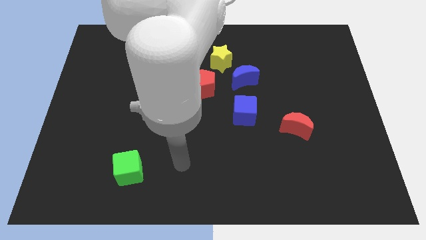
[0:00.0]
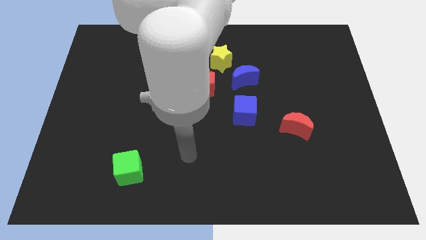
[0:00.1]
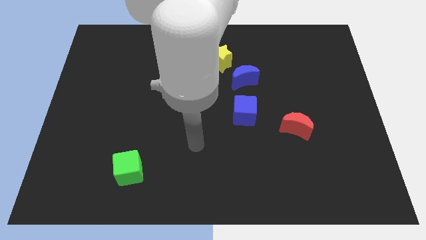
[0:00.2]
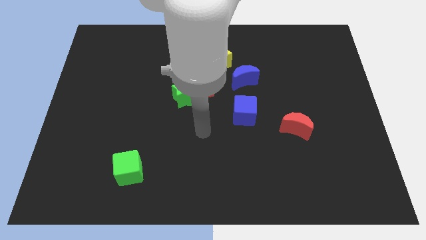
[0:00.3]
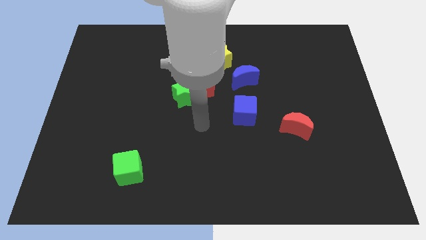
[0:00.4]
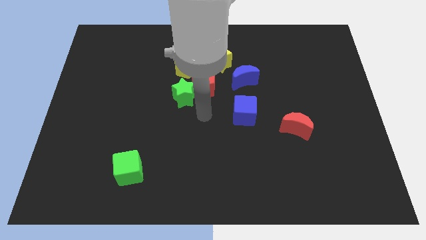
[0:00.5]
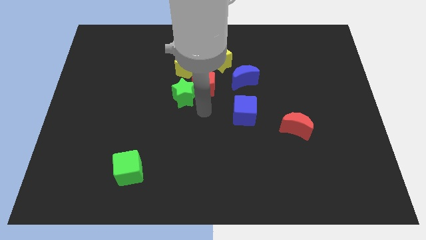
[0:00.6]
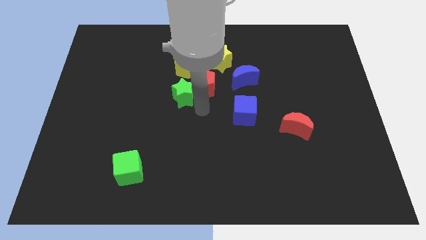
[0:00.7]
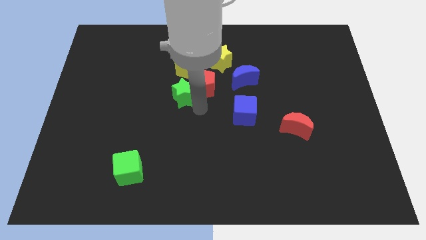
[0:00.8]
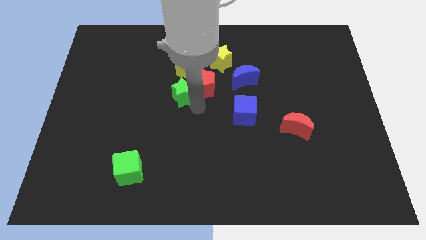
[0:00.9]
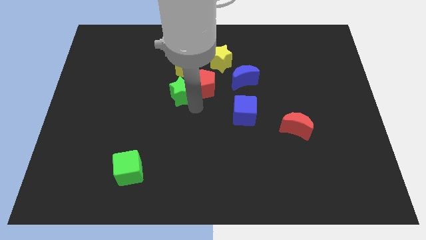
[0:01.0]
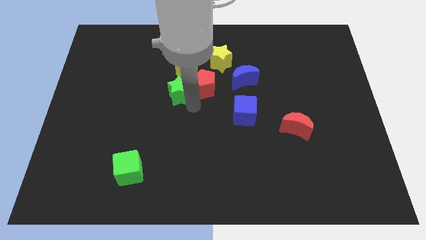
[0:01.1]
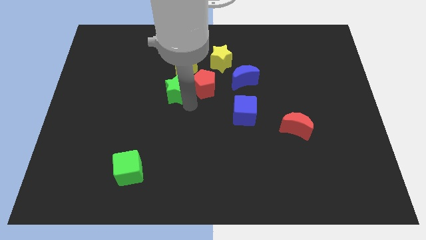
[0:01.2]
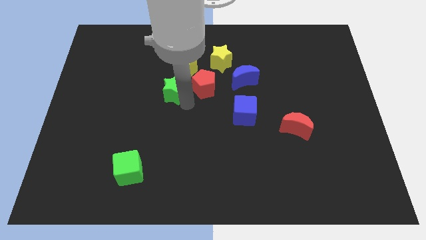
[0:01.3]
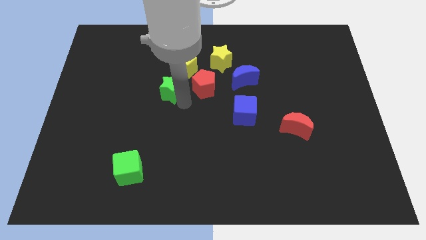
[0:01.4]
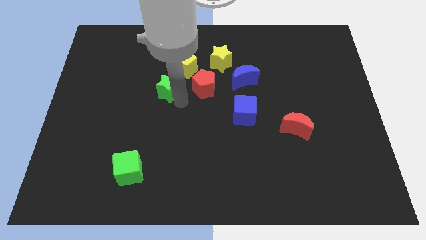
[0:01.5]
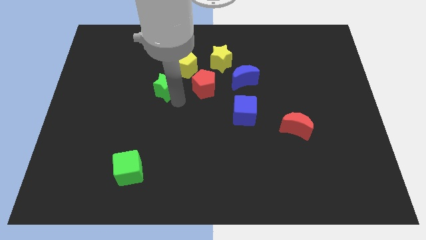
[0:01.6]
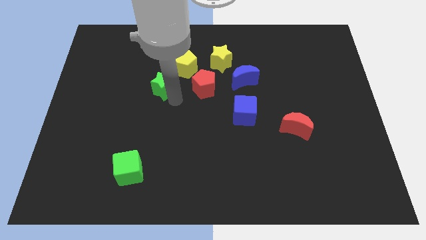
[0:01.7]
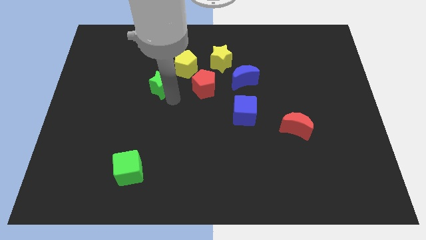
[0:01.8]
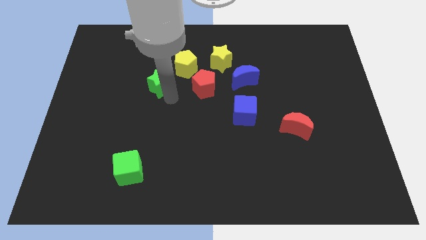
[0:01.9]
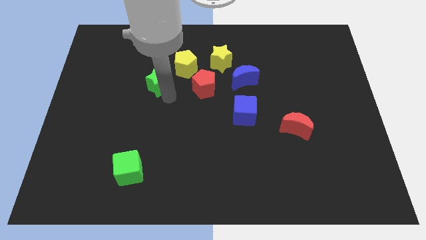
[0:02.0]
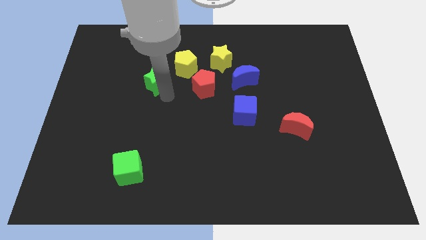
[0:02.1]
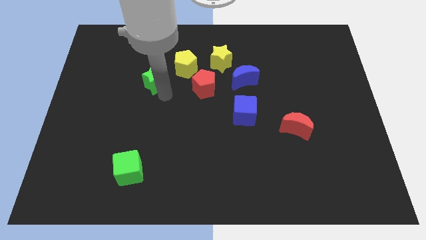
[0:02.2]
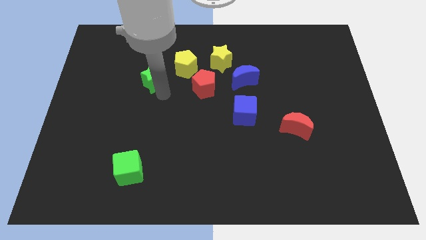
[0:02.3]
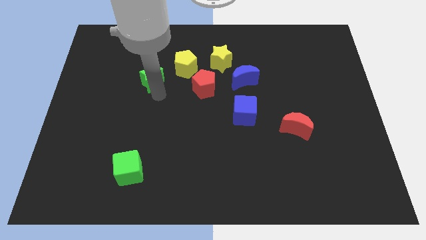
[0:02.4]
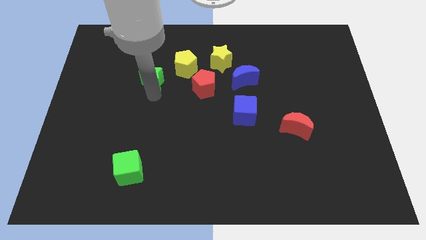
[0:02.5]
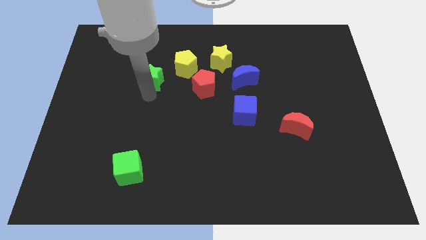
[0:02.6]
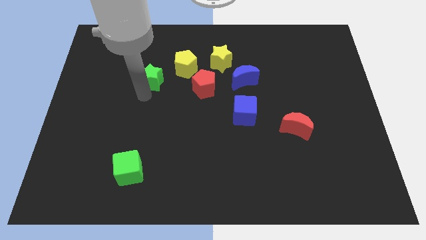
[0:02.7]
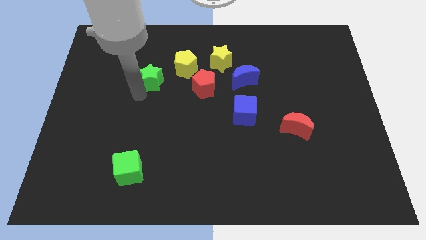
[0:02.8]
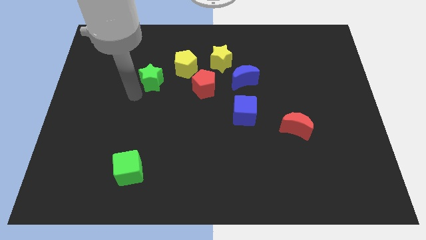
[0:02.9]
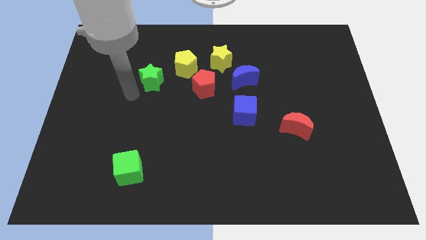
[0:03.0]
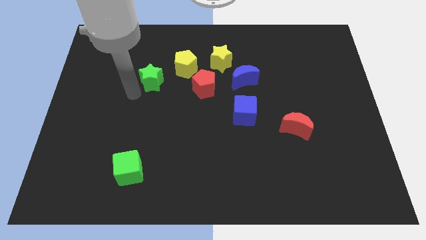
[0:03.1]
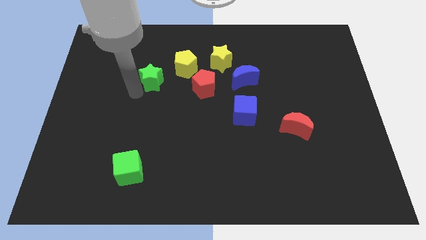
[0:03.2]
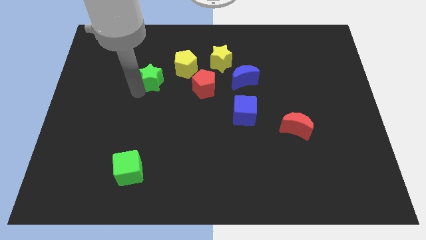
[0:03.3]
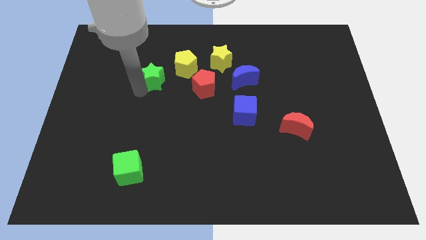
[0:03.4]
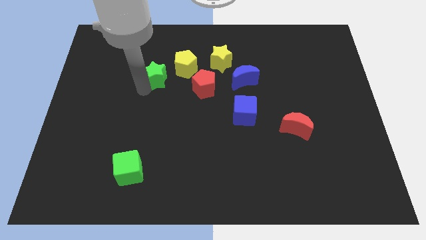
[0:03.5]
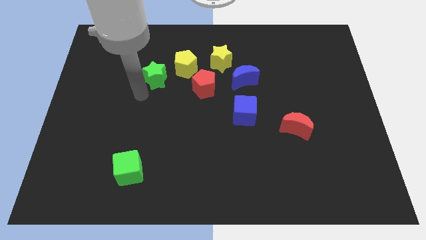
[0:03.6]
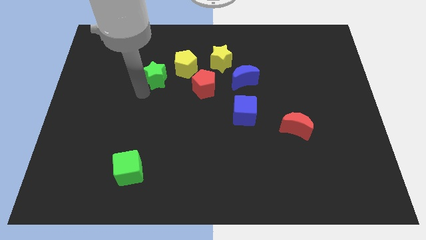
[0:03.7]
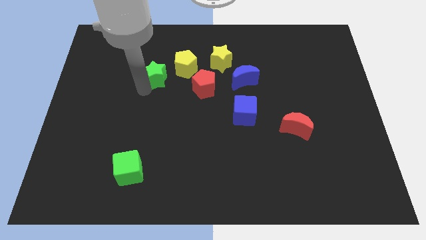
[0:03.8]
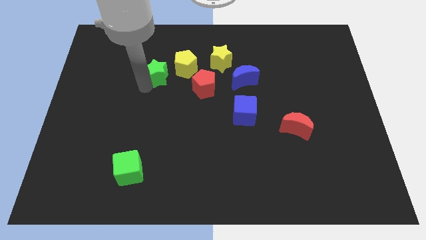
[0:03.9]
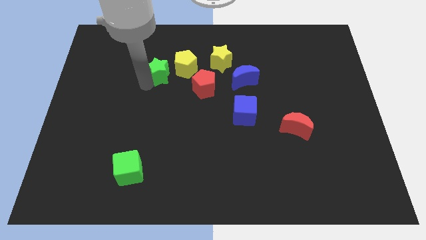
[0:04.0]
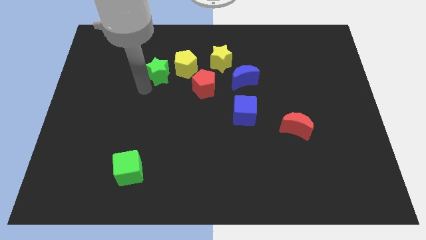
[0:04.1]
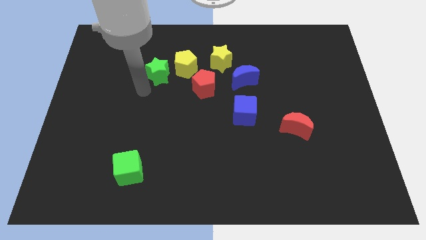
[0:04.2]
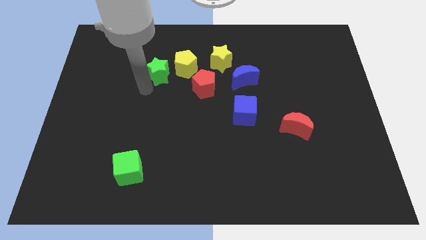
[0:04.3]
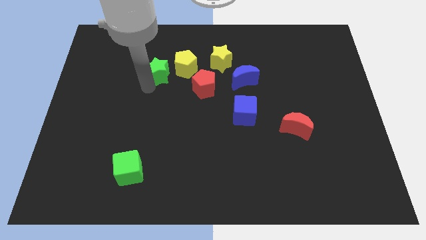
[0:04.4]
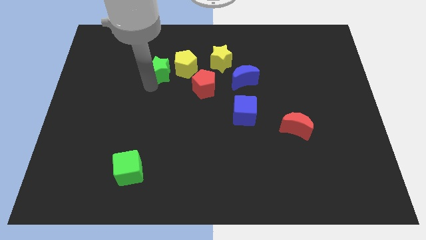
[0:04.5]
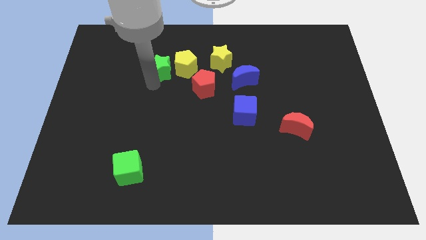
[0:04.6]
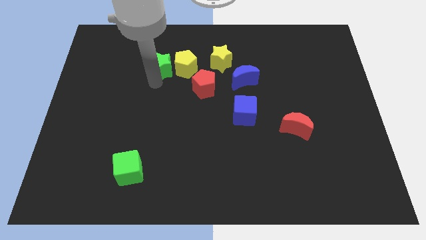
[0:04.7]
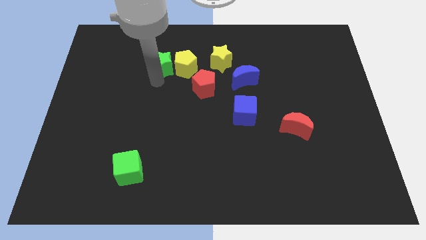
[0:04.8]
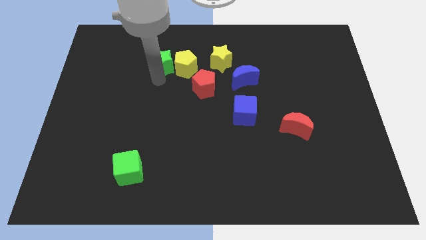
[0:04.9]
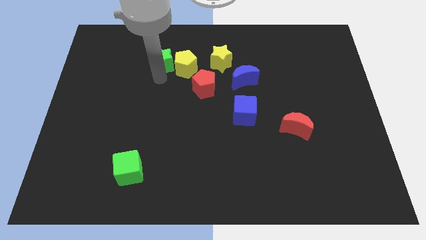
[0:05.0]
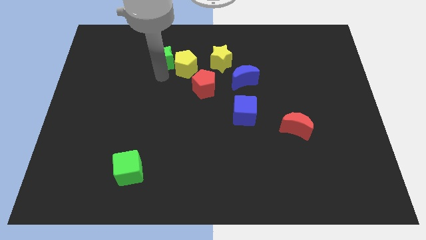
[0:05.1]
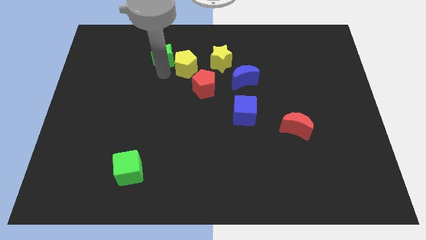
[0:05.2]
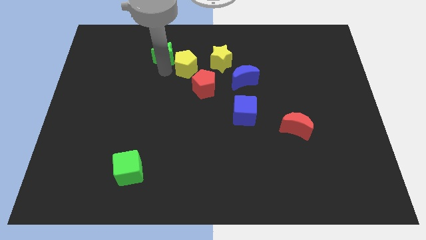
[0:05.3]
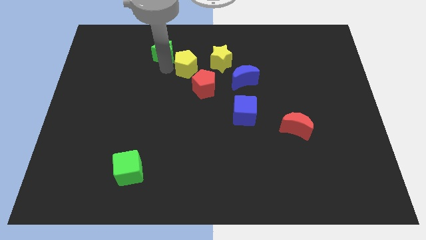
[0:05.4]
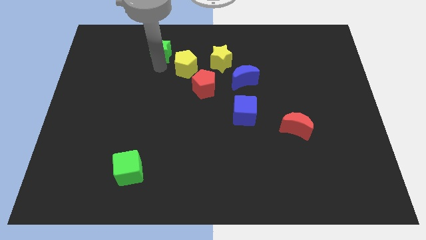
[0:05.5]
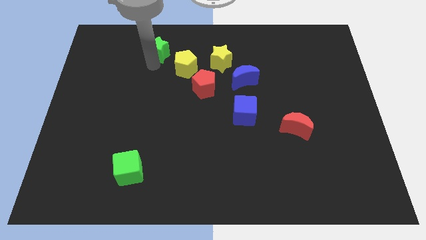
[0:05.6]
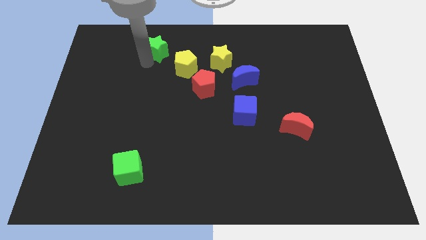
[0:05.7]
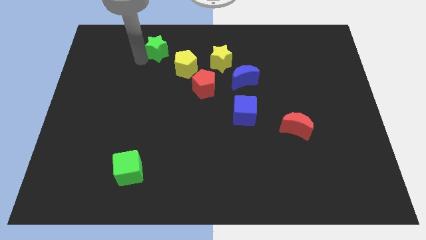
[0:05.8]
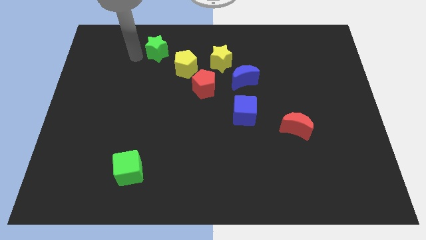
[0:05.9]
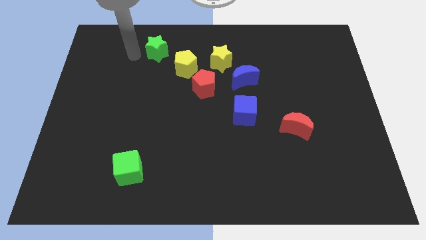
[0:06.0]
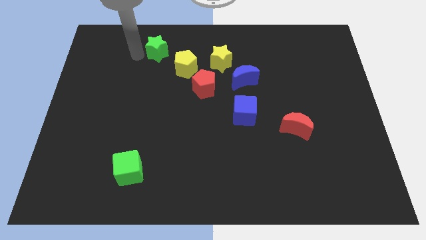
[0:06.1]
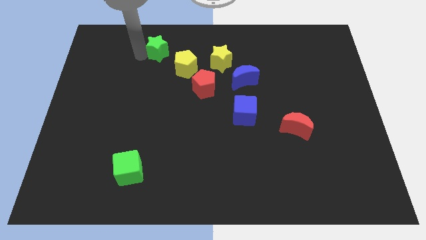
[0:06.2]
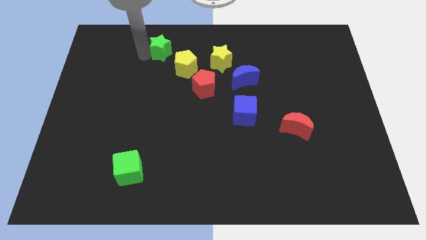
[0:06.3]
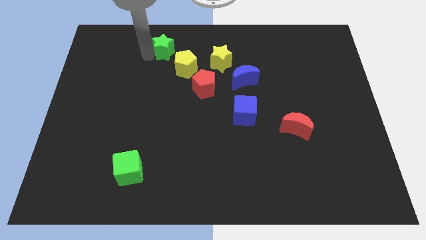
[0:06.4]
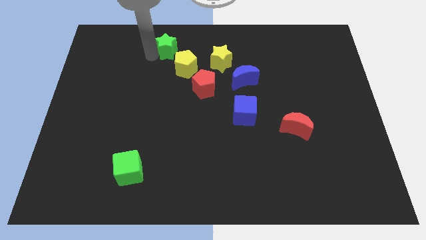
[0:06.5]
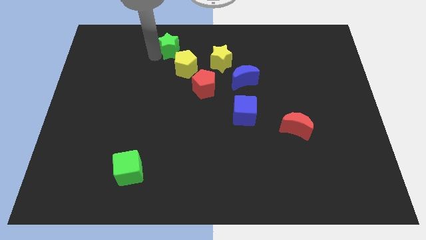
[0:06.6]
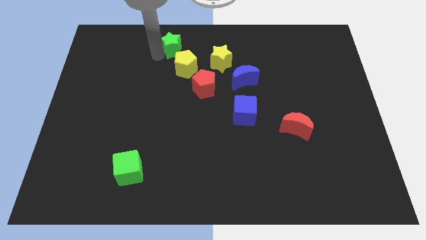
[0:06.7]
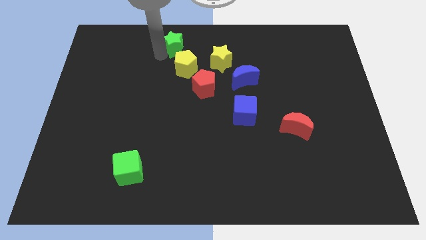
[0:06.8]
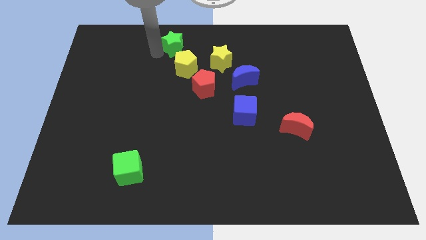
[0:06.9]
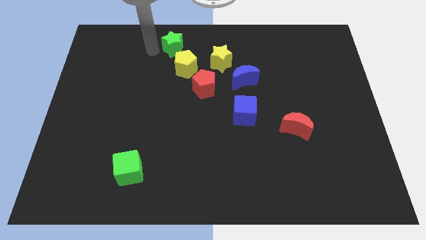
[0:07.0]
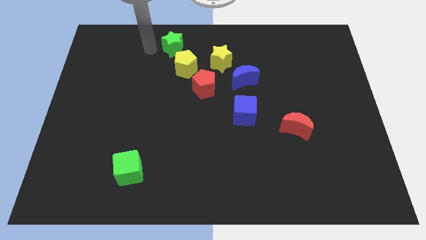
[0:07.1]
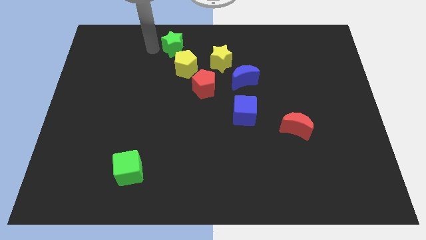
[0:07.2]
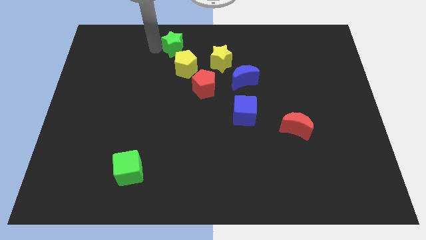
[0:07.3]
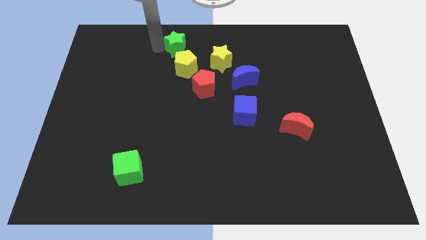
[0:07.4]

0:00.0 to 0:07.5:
put the green star to the top side
